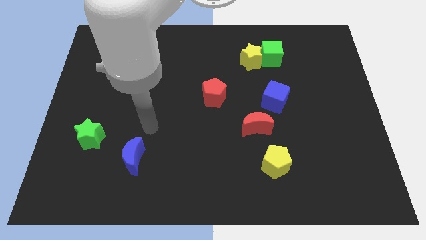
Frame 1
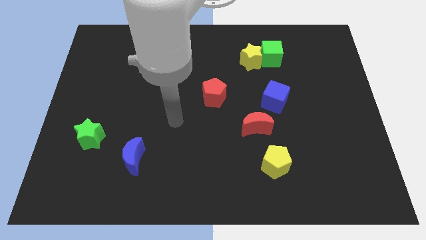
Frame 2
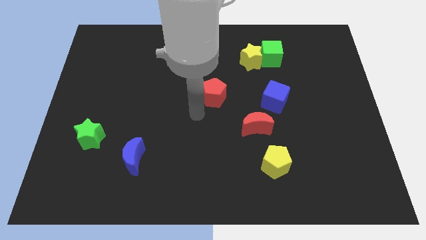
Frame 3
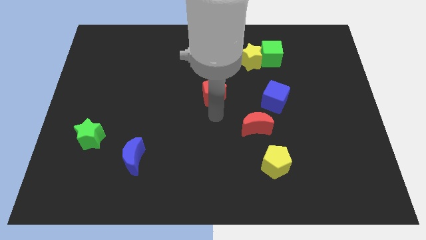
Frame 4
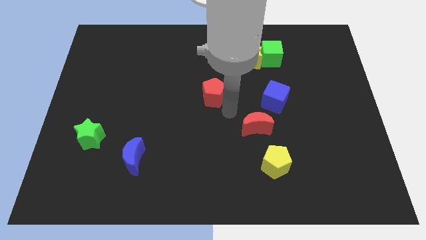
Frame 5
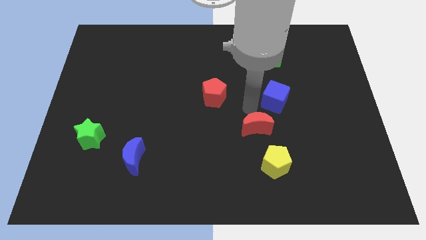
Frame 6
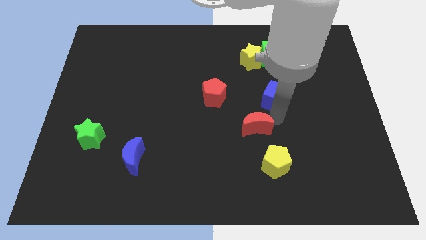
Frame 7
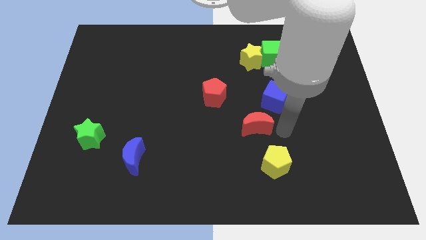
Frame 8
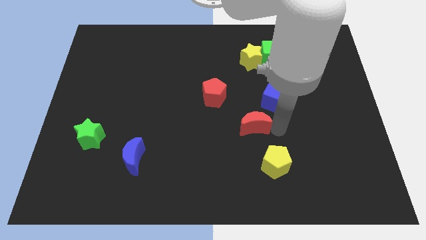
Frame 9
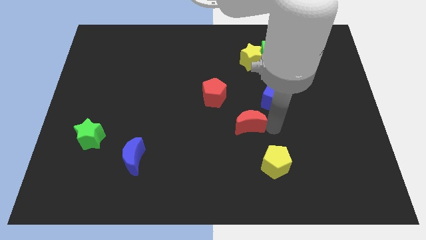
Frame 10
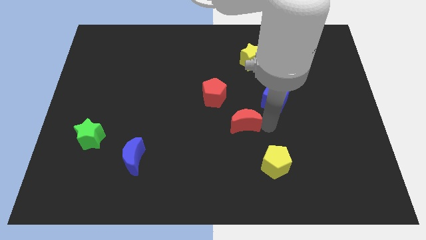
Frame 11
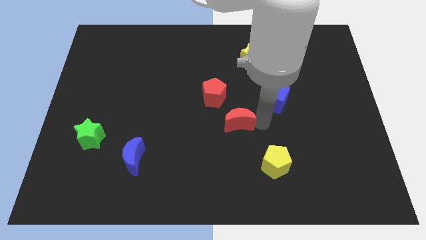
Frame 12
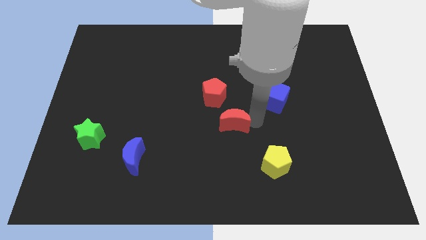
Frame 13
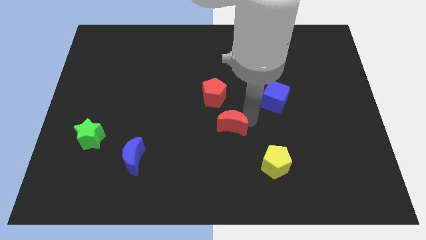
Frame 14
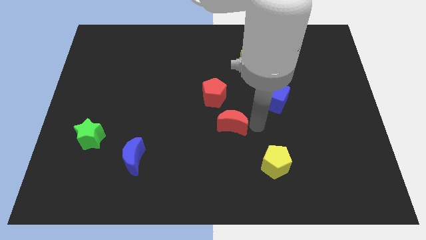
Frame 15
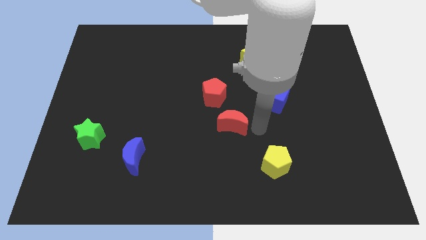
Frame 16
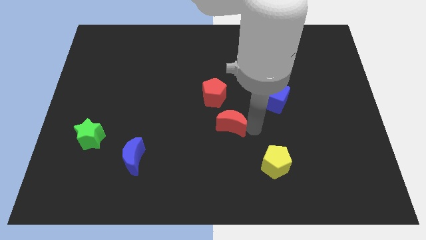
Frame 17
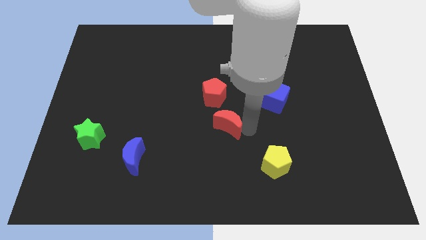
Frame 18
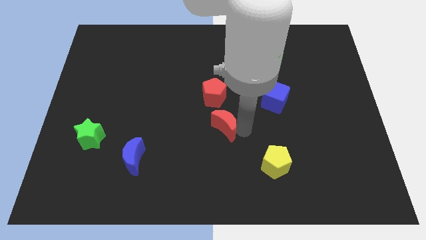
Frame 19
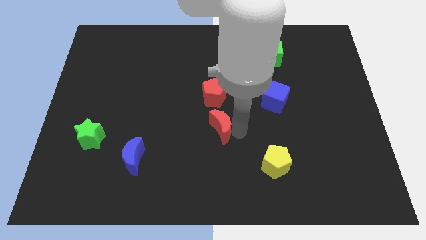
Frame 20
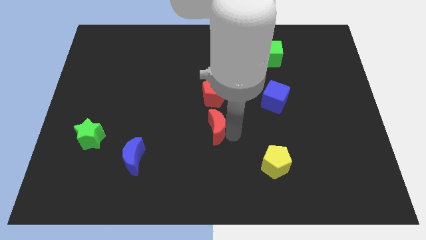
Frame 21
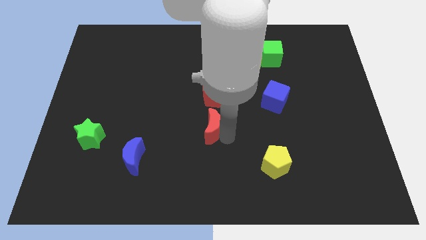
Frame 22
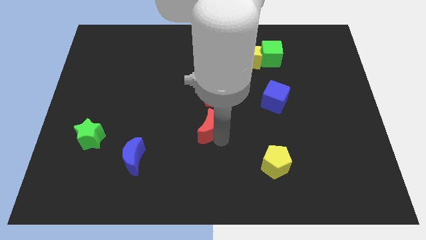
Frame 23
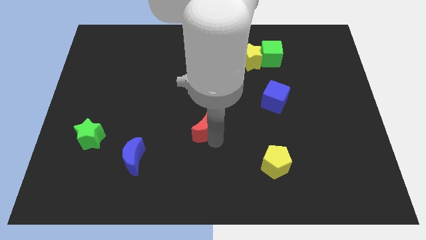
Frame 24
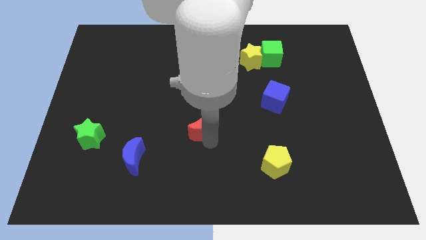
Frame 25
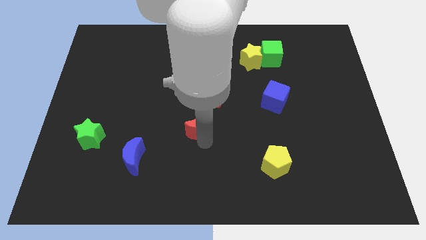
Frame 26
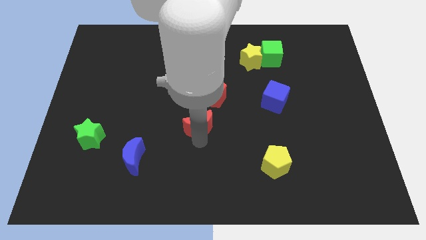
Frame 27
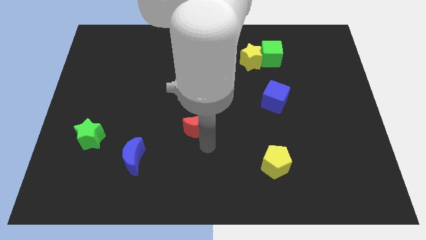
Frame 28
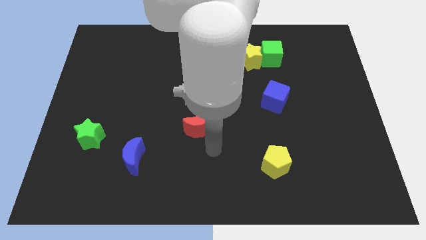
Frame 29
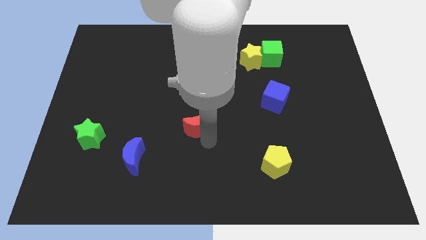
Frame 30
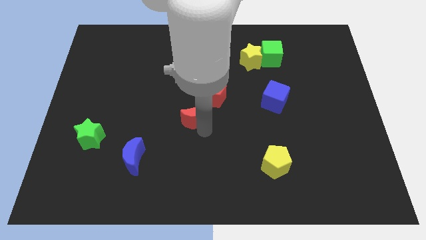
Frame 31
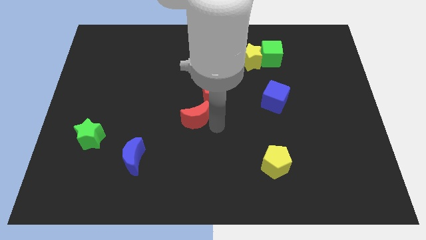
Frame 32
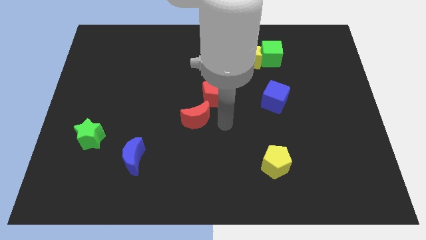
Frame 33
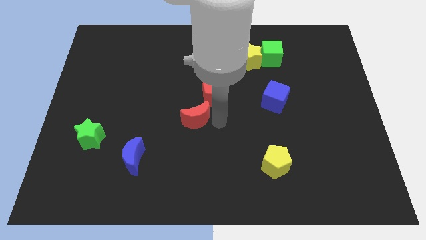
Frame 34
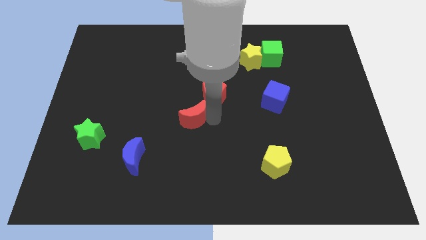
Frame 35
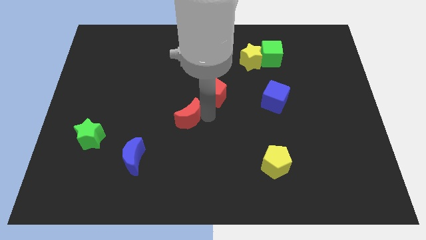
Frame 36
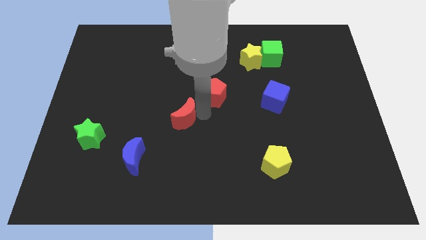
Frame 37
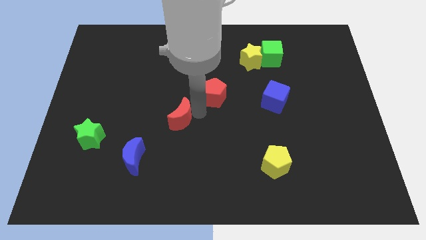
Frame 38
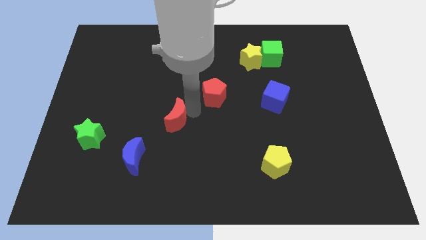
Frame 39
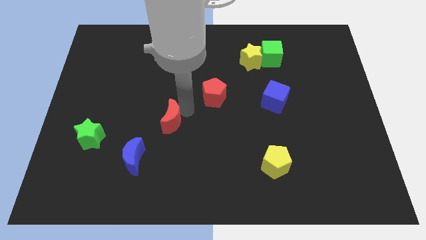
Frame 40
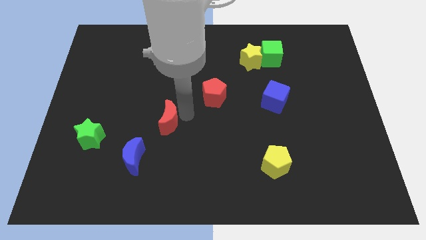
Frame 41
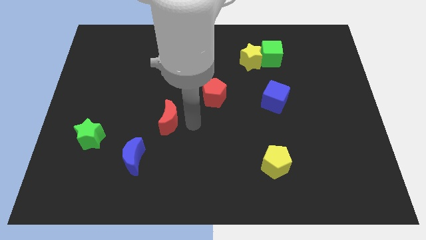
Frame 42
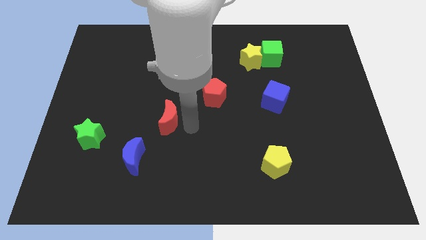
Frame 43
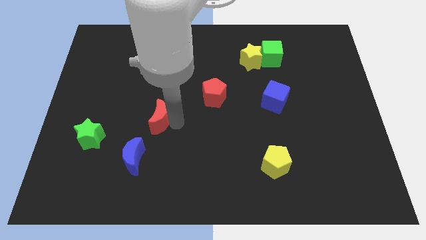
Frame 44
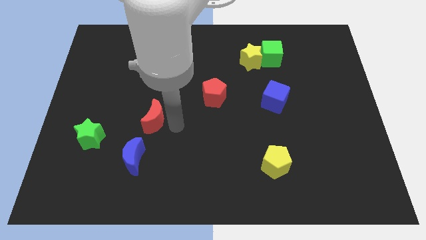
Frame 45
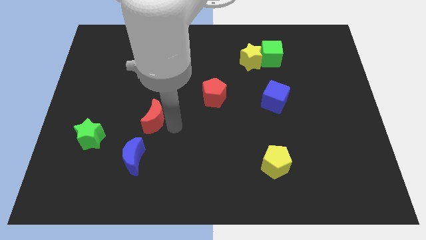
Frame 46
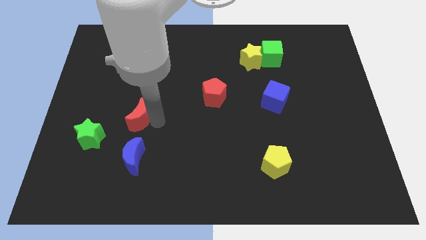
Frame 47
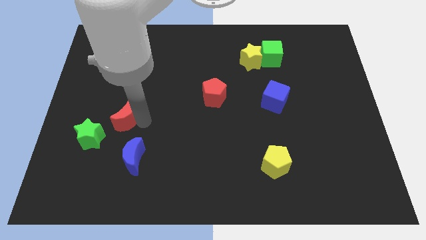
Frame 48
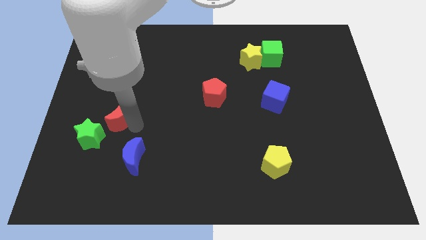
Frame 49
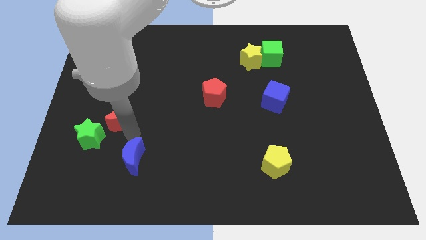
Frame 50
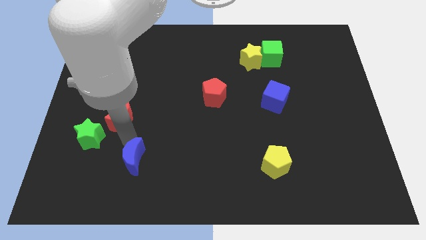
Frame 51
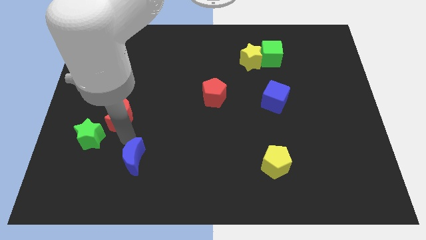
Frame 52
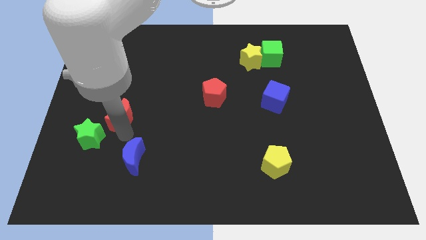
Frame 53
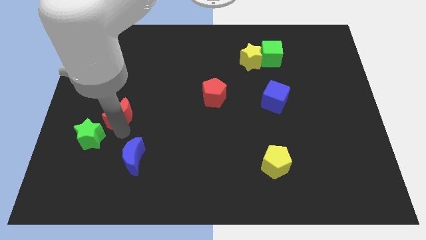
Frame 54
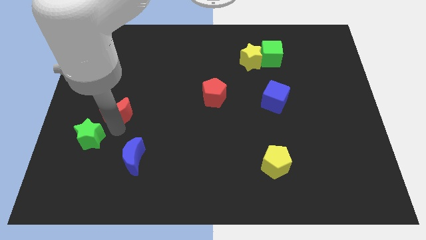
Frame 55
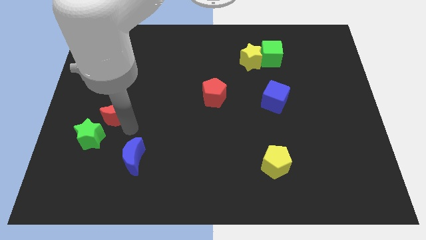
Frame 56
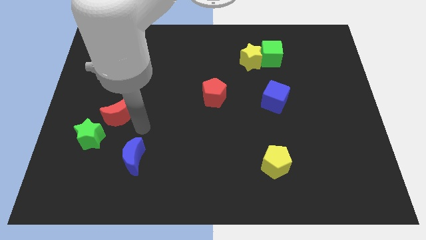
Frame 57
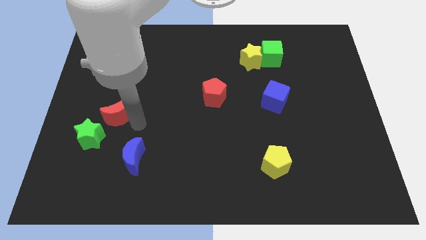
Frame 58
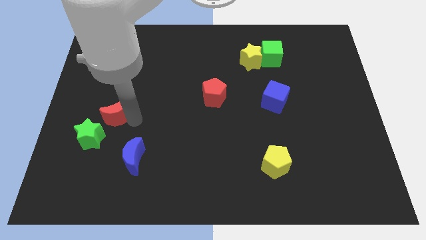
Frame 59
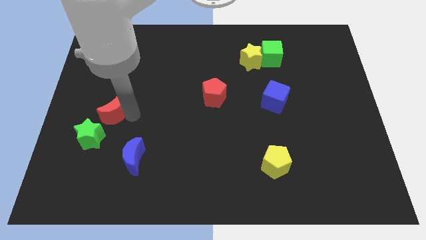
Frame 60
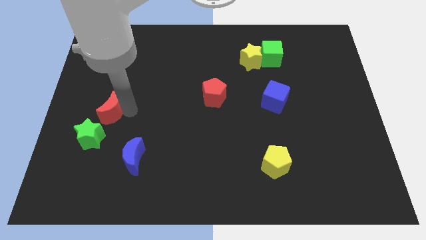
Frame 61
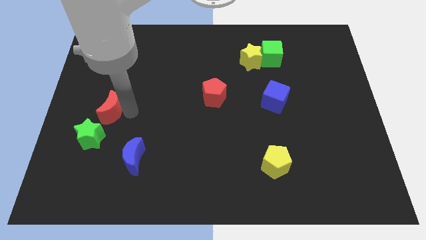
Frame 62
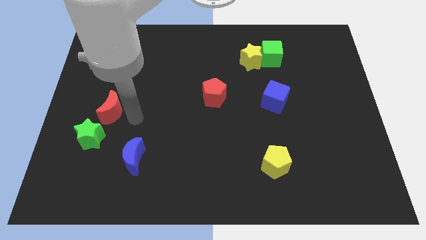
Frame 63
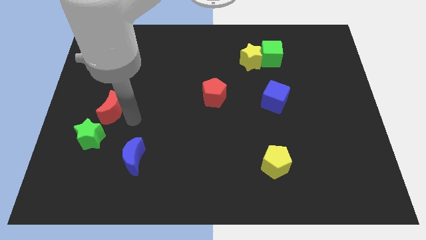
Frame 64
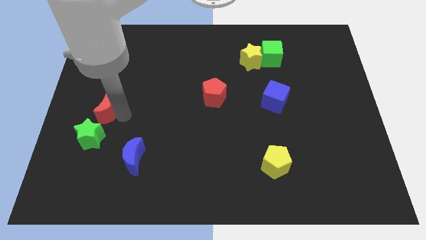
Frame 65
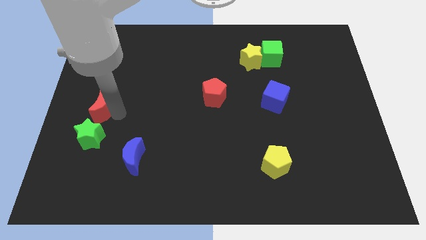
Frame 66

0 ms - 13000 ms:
push the red moon to the left side
